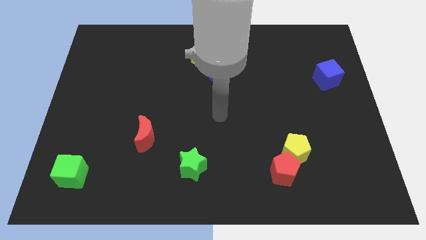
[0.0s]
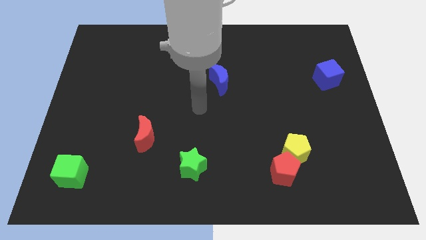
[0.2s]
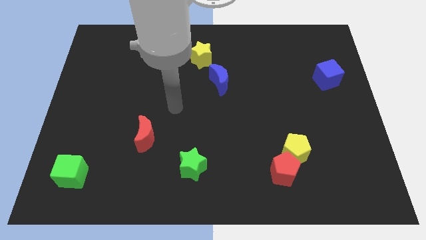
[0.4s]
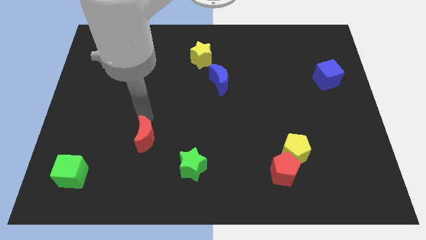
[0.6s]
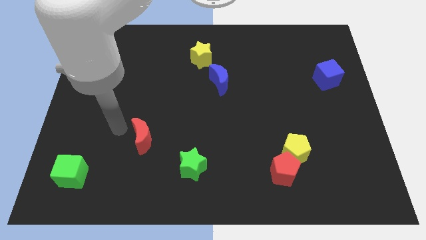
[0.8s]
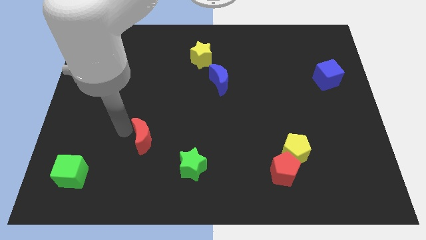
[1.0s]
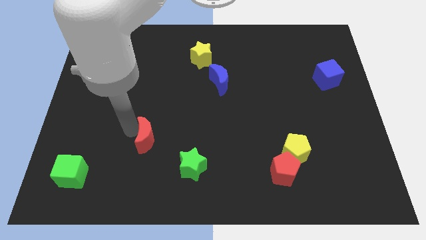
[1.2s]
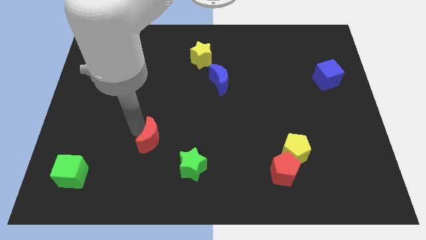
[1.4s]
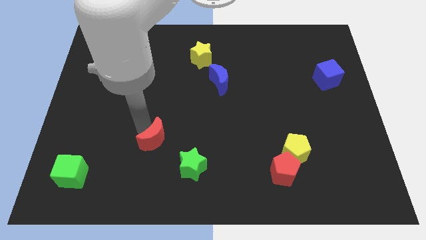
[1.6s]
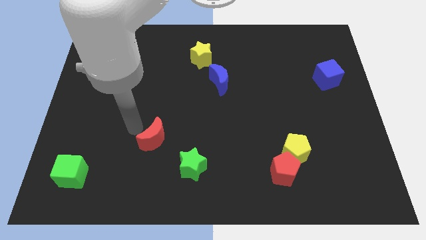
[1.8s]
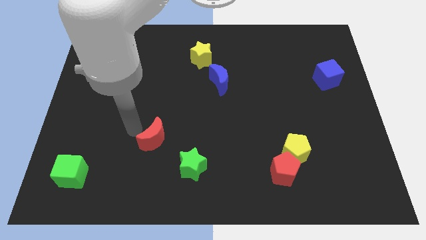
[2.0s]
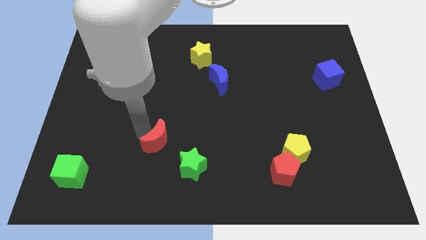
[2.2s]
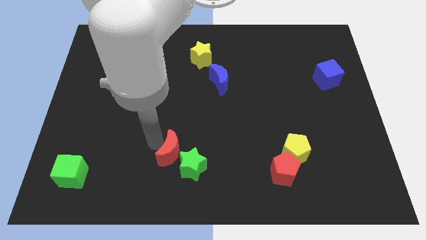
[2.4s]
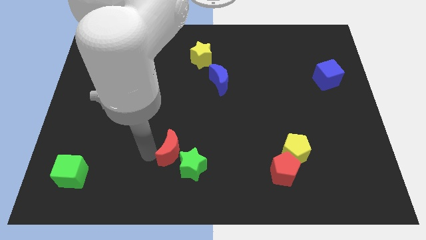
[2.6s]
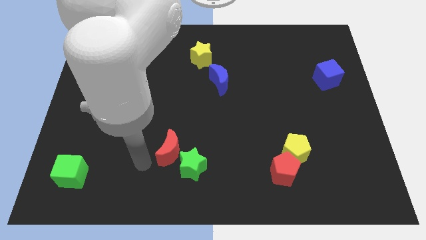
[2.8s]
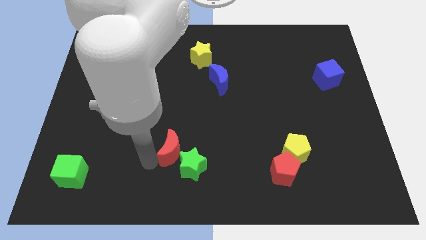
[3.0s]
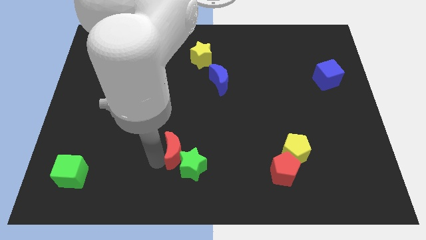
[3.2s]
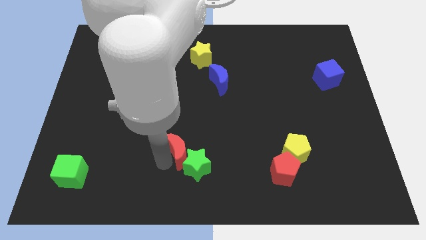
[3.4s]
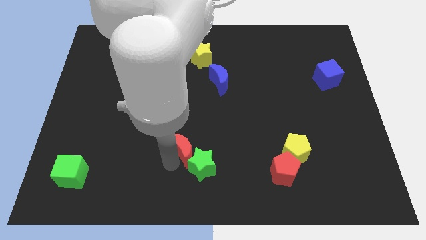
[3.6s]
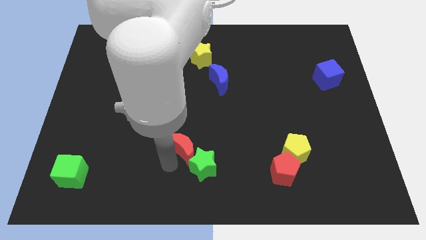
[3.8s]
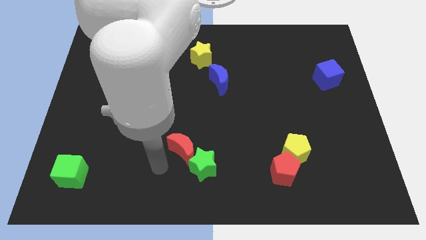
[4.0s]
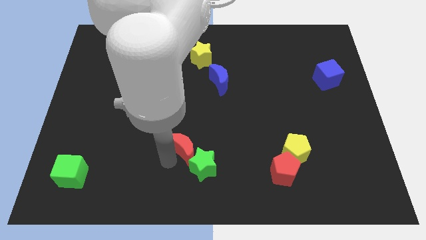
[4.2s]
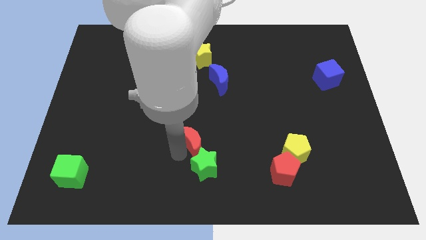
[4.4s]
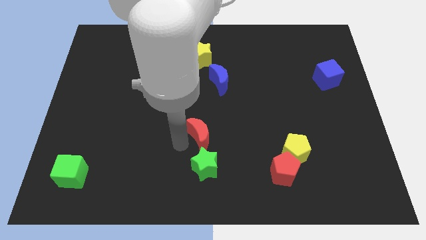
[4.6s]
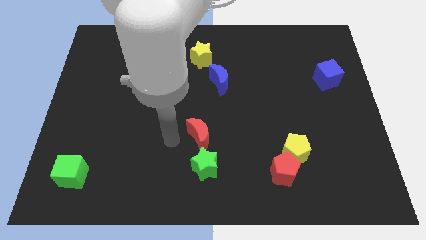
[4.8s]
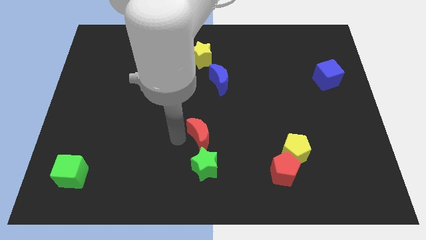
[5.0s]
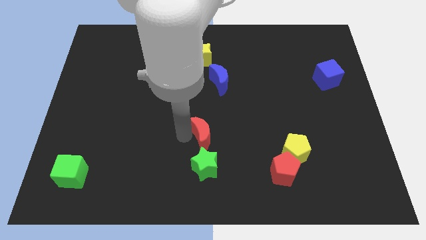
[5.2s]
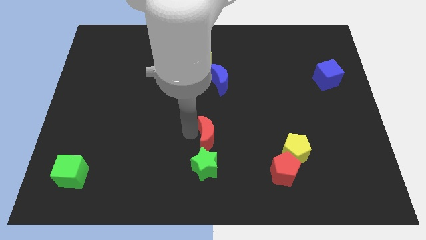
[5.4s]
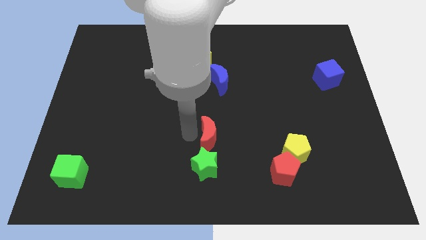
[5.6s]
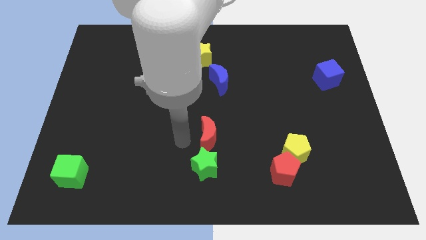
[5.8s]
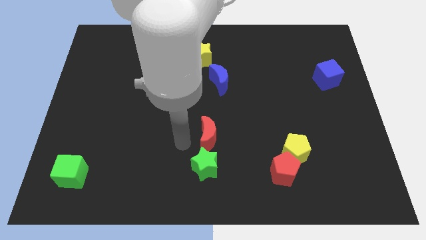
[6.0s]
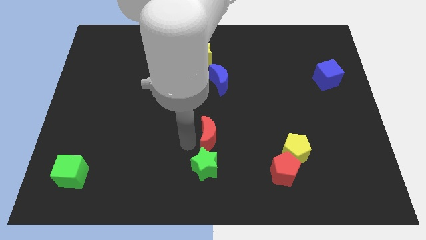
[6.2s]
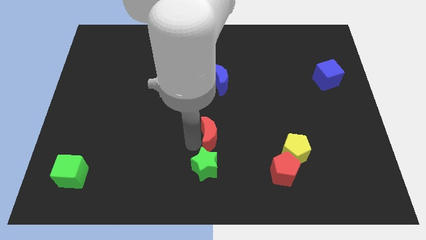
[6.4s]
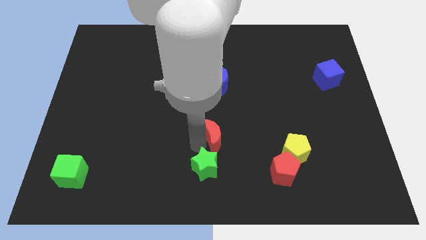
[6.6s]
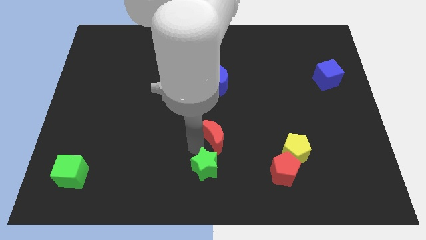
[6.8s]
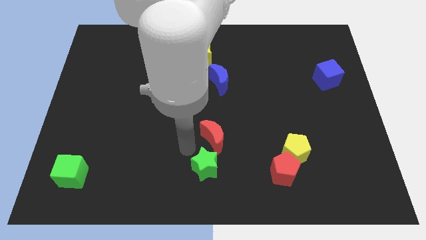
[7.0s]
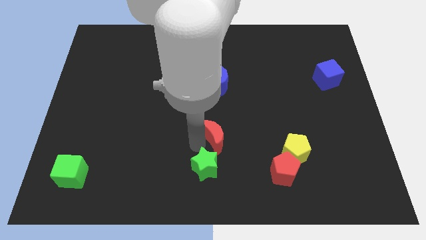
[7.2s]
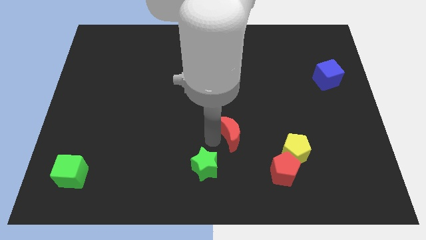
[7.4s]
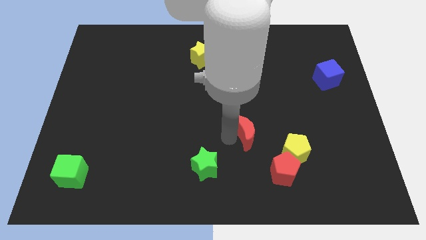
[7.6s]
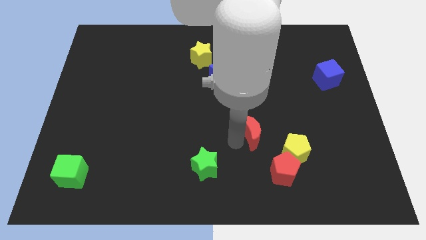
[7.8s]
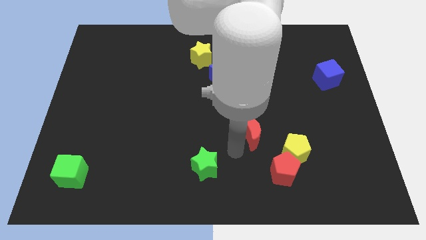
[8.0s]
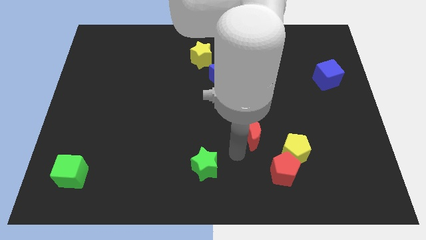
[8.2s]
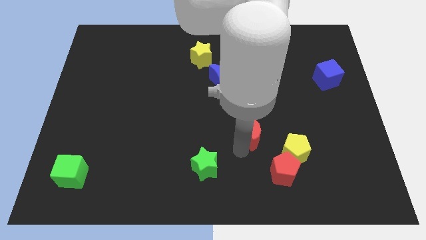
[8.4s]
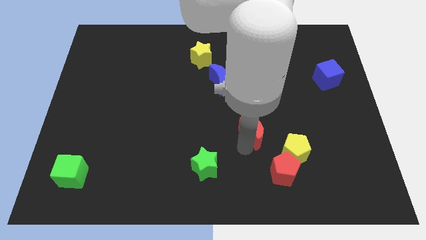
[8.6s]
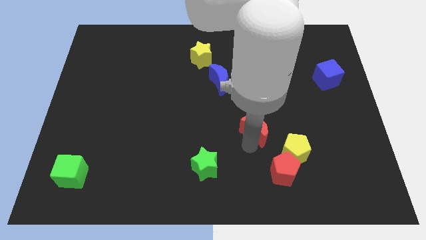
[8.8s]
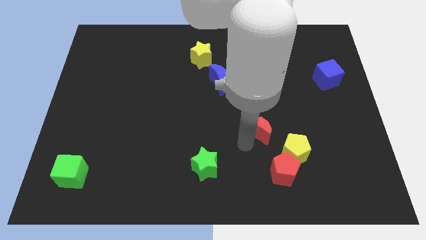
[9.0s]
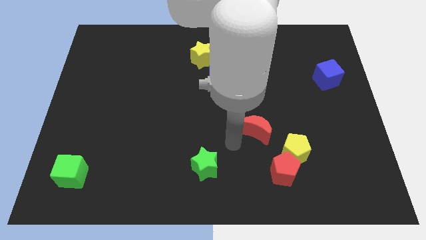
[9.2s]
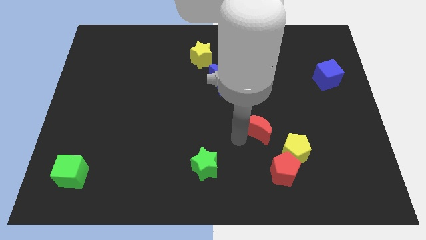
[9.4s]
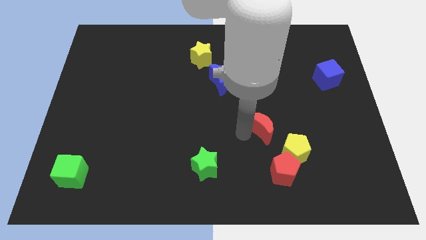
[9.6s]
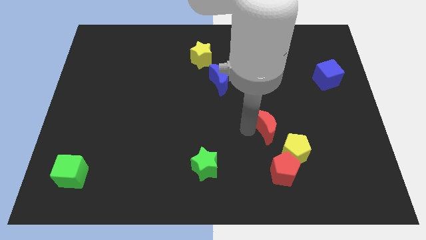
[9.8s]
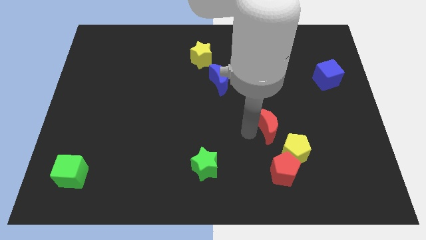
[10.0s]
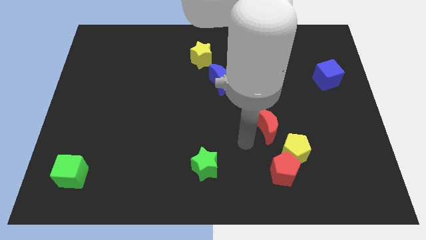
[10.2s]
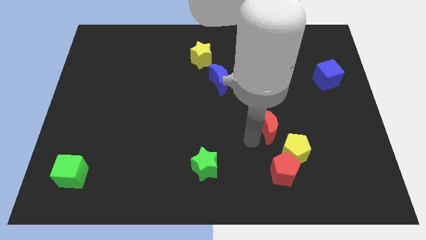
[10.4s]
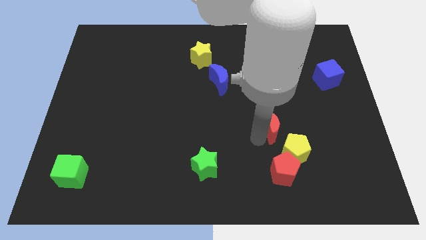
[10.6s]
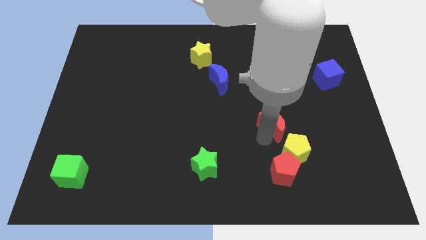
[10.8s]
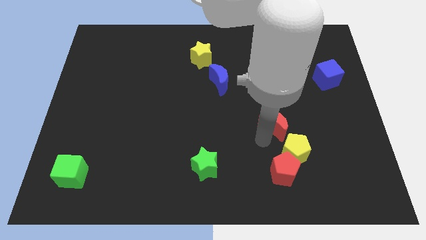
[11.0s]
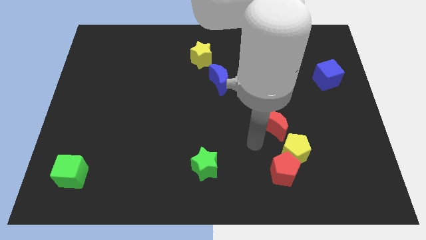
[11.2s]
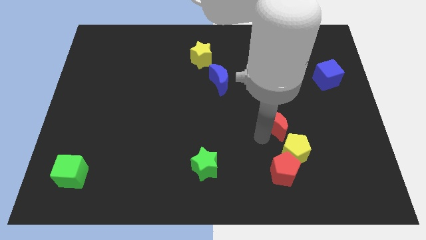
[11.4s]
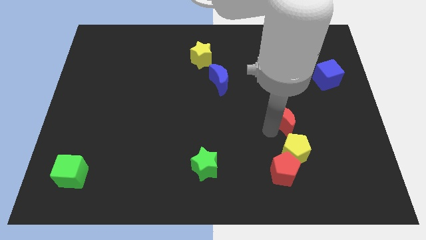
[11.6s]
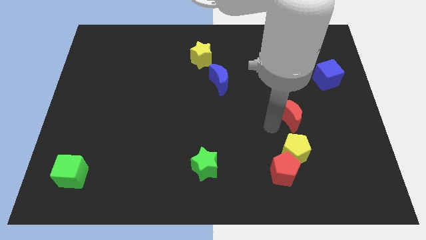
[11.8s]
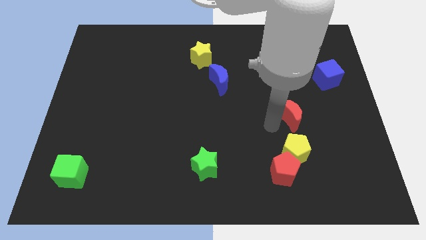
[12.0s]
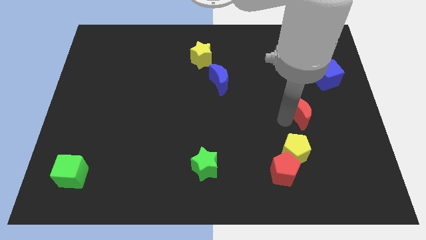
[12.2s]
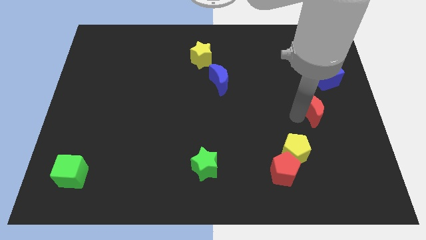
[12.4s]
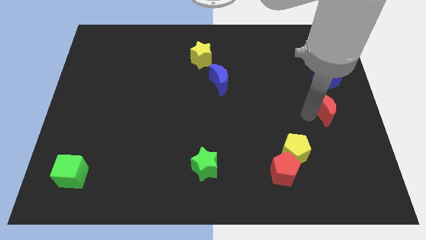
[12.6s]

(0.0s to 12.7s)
move the red moon to the right side of the board

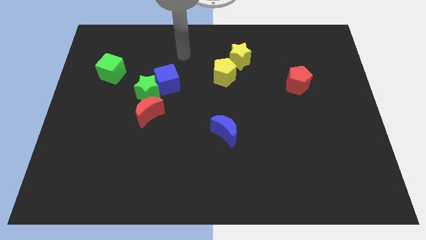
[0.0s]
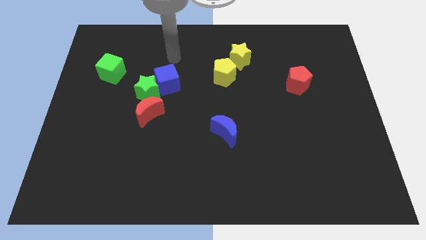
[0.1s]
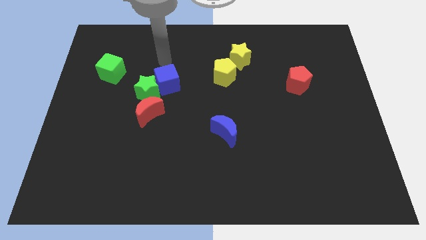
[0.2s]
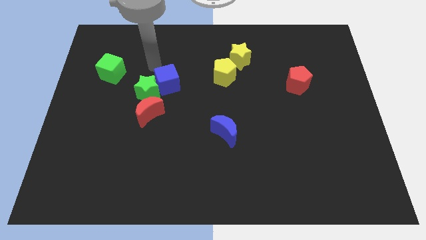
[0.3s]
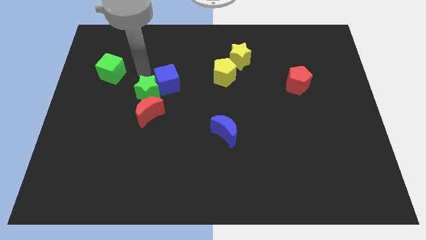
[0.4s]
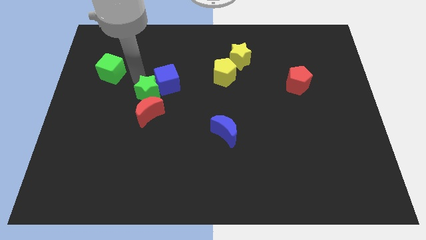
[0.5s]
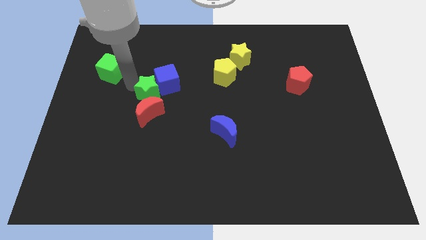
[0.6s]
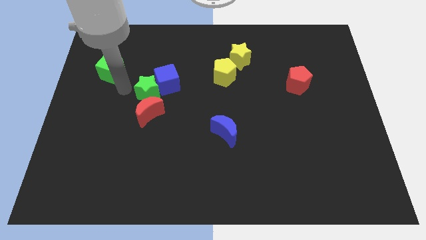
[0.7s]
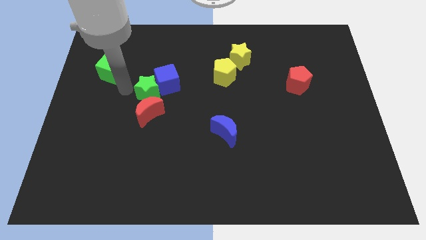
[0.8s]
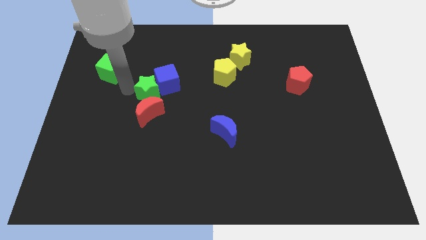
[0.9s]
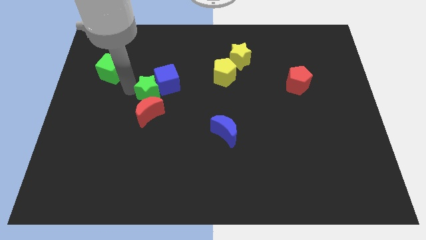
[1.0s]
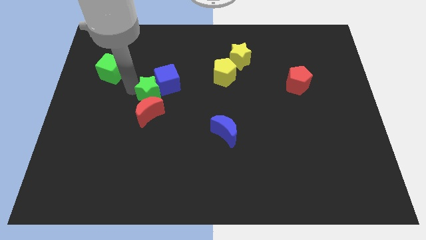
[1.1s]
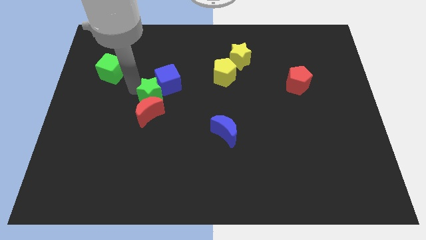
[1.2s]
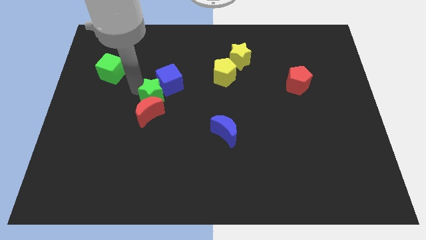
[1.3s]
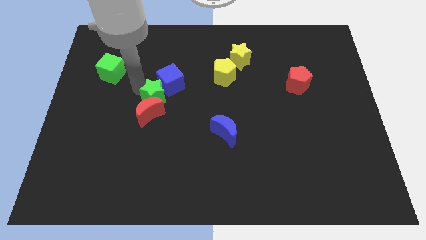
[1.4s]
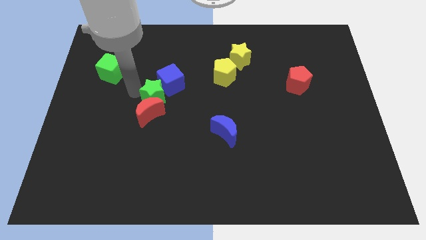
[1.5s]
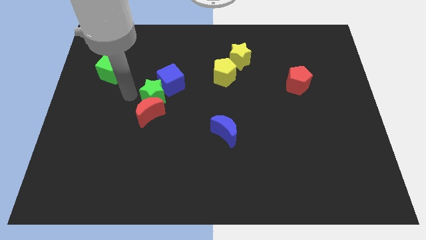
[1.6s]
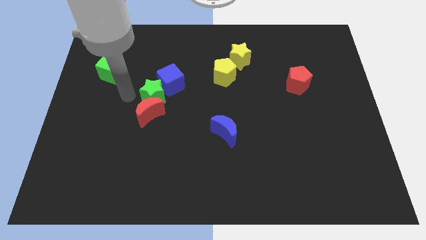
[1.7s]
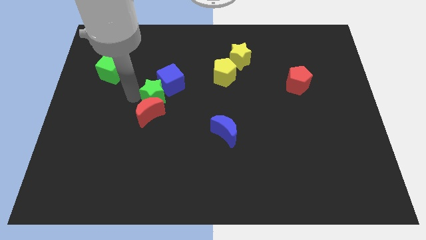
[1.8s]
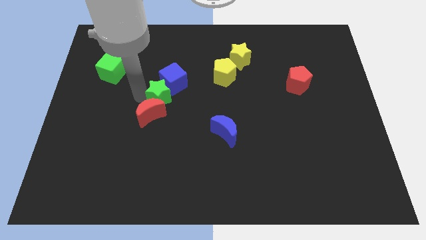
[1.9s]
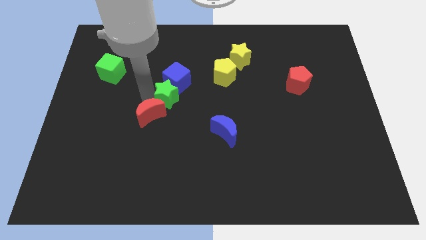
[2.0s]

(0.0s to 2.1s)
put the green star to the center
